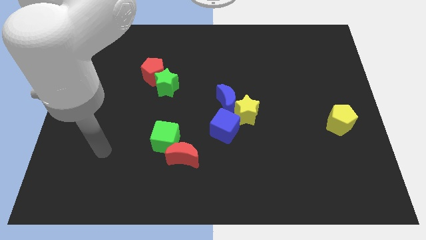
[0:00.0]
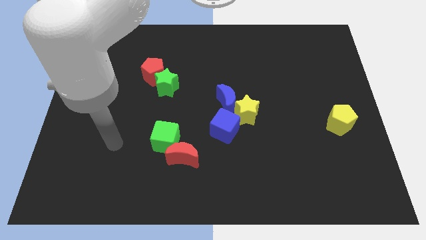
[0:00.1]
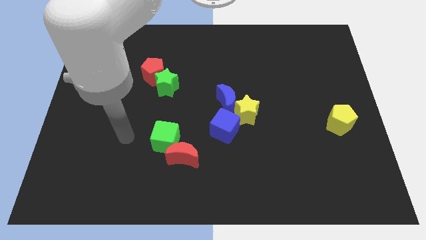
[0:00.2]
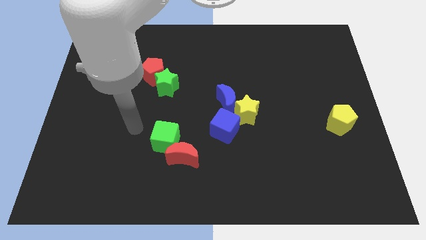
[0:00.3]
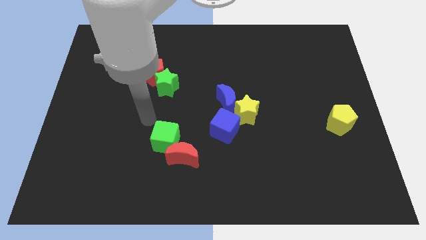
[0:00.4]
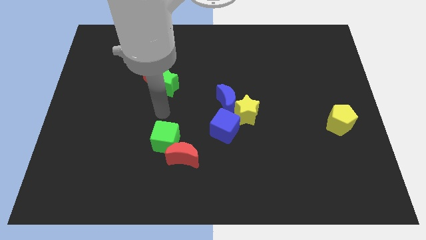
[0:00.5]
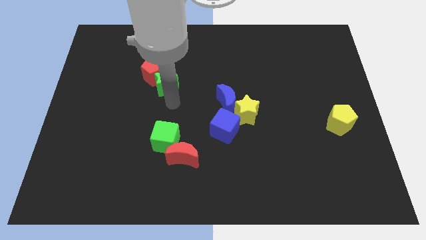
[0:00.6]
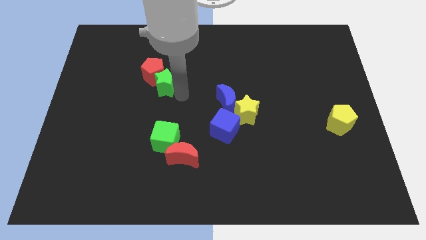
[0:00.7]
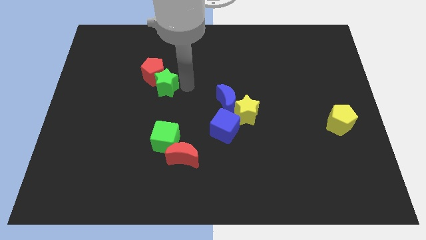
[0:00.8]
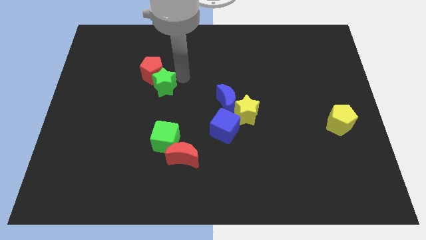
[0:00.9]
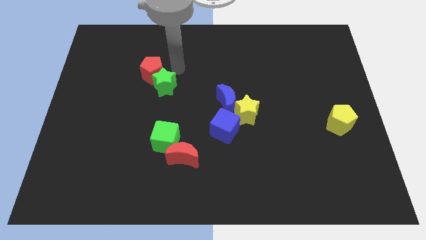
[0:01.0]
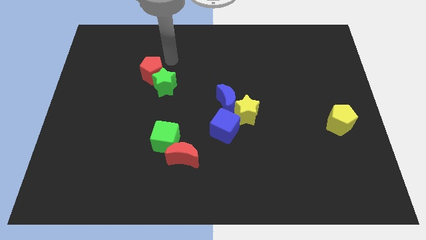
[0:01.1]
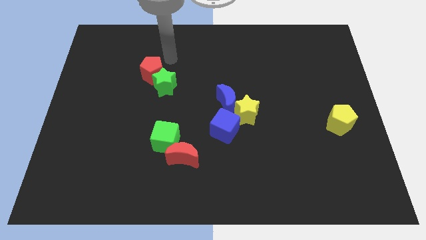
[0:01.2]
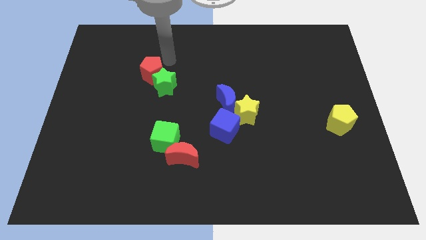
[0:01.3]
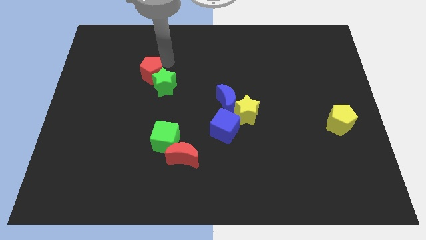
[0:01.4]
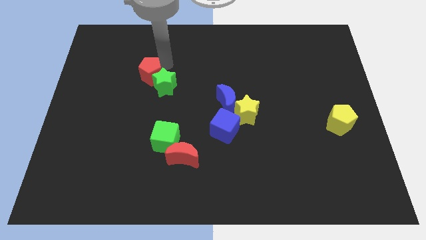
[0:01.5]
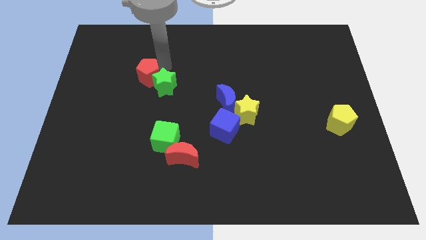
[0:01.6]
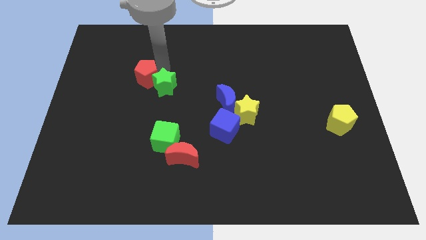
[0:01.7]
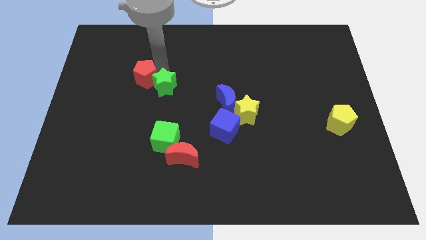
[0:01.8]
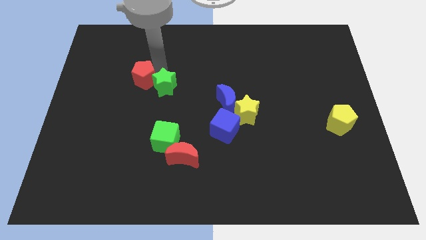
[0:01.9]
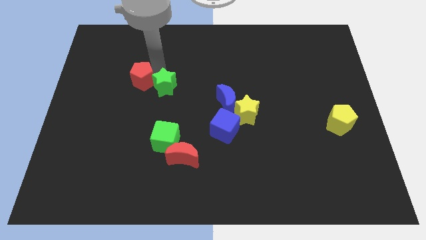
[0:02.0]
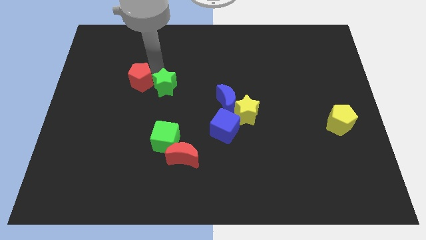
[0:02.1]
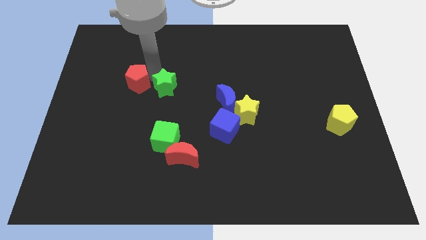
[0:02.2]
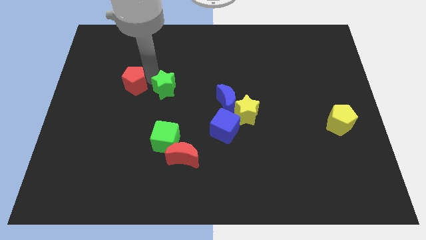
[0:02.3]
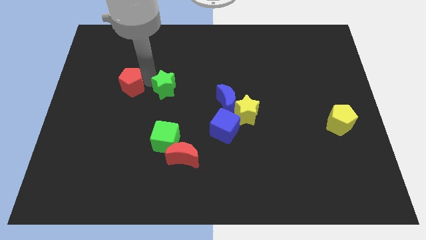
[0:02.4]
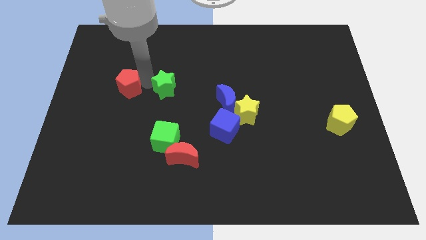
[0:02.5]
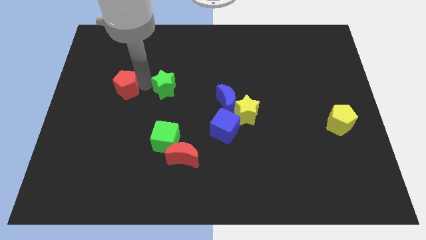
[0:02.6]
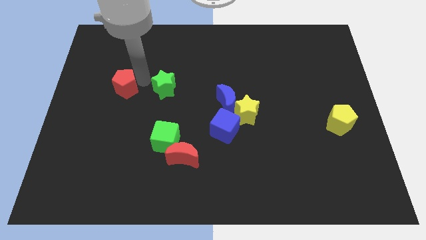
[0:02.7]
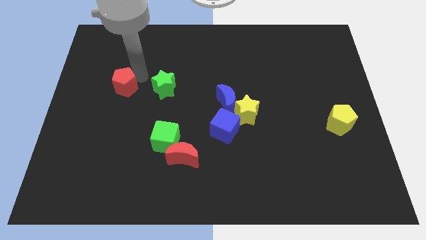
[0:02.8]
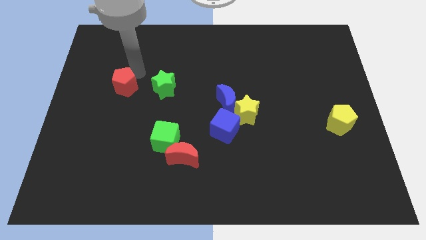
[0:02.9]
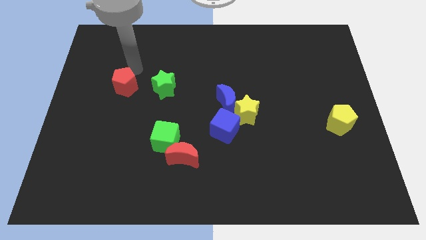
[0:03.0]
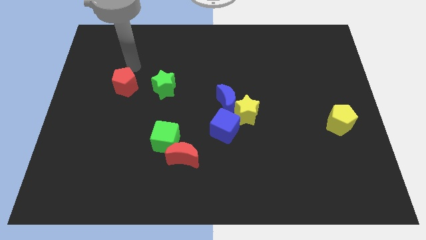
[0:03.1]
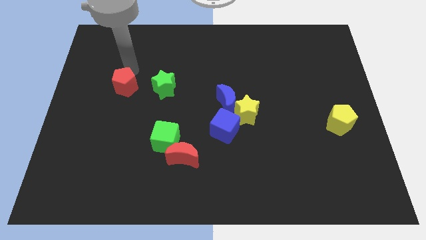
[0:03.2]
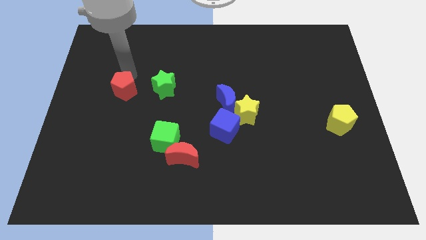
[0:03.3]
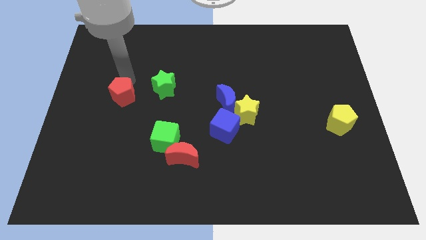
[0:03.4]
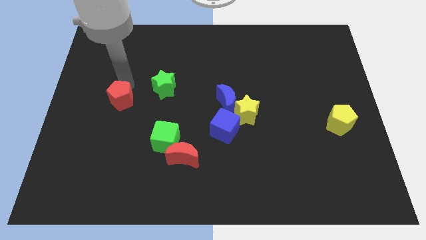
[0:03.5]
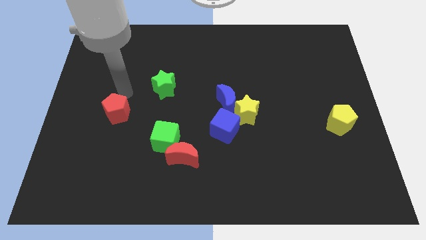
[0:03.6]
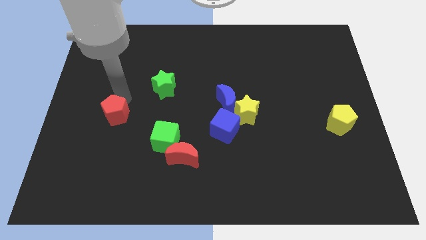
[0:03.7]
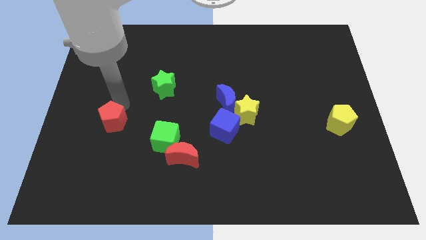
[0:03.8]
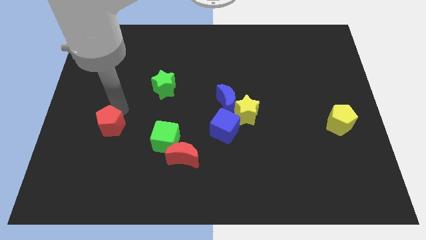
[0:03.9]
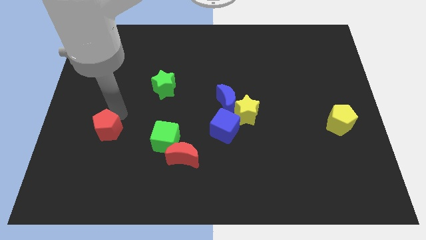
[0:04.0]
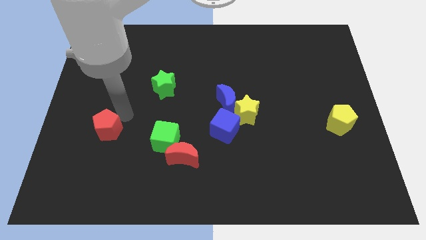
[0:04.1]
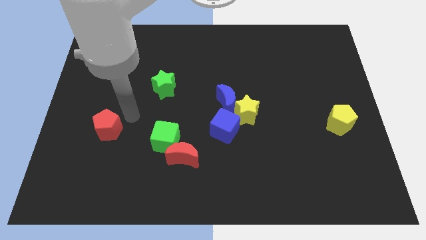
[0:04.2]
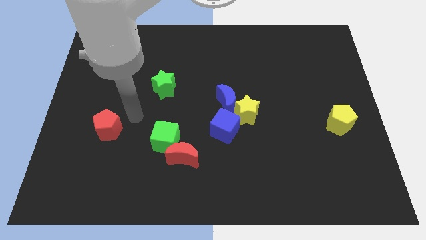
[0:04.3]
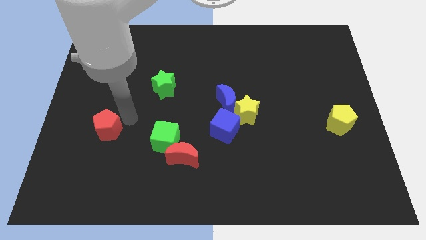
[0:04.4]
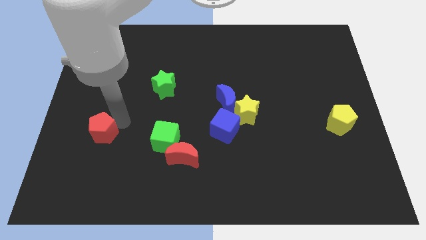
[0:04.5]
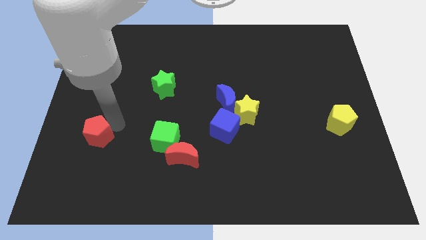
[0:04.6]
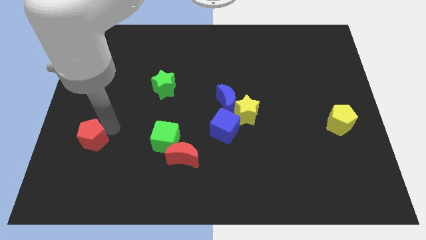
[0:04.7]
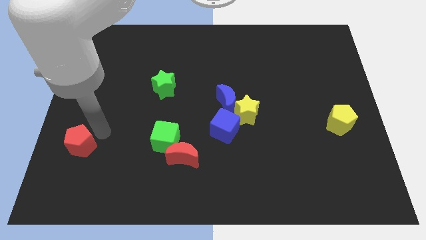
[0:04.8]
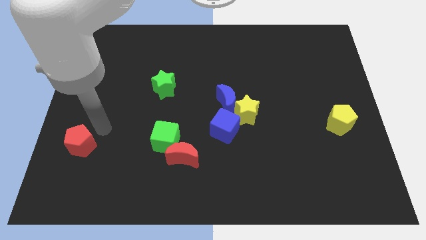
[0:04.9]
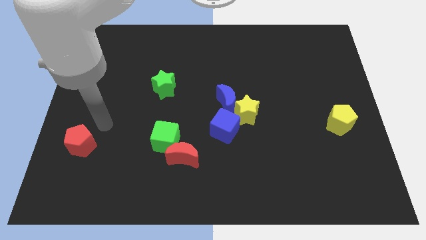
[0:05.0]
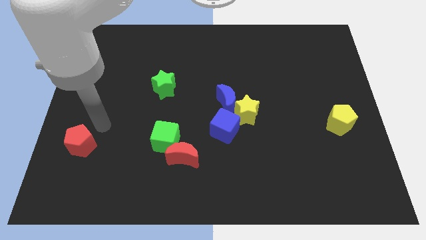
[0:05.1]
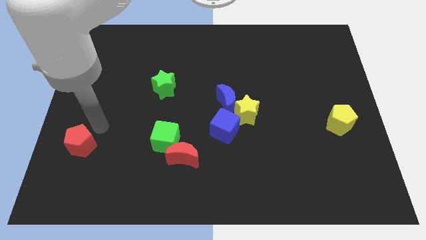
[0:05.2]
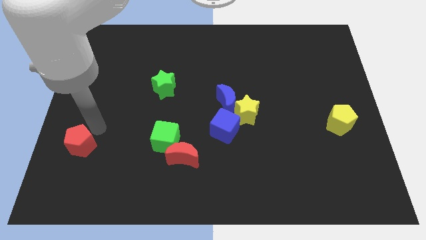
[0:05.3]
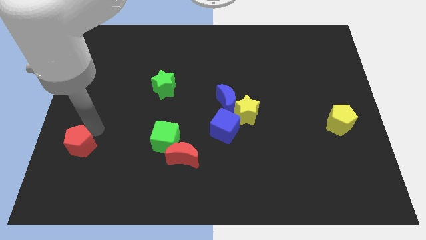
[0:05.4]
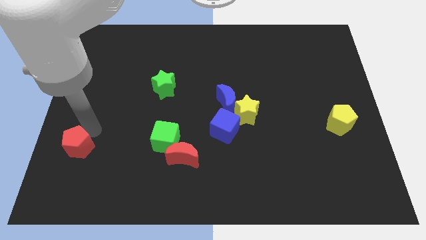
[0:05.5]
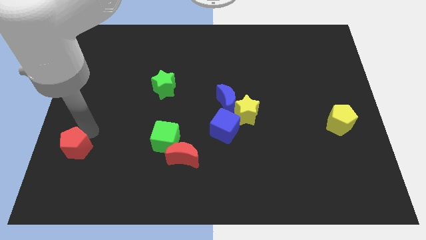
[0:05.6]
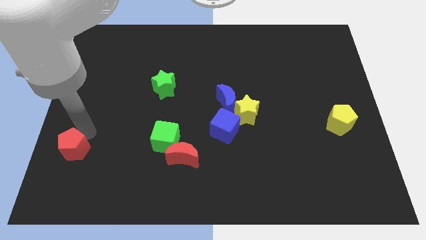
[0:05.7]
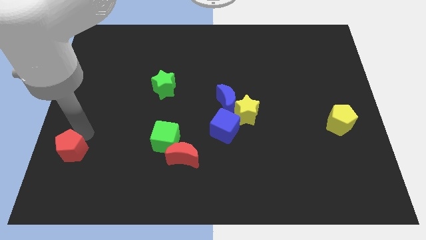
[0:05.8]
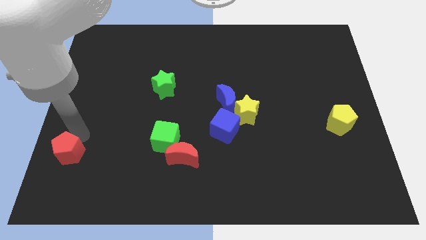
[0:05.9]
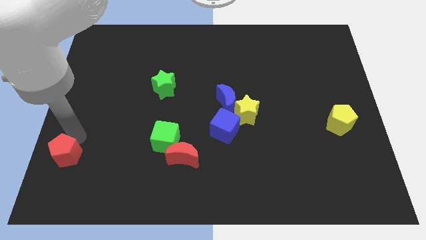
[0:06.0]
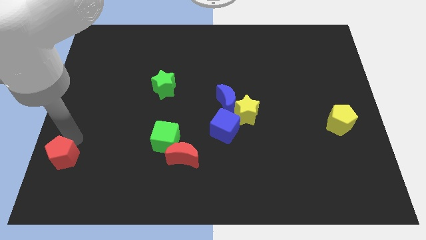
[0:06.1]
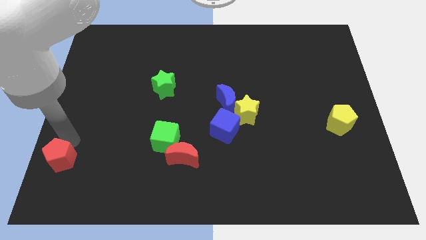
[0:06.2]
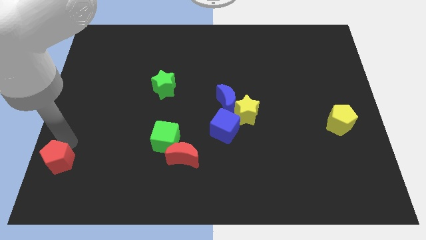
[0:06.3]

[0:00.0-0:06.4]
put the red pentagon to the lower left corner
